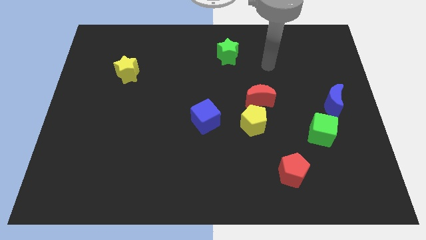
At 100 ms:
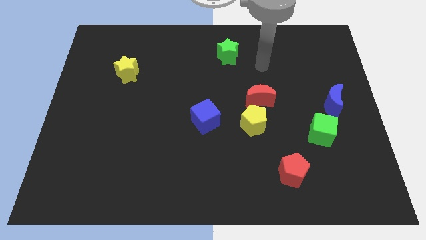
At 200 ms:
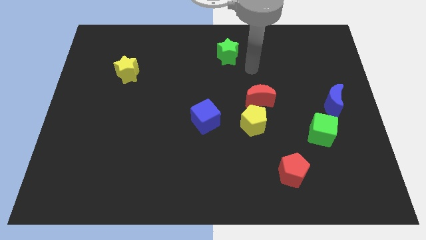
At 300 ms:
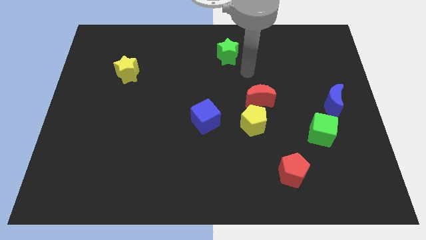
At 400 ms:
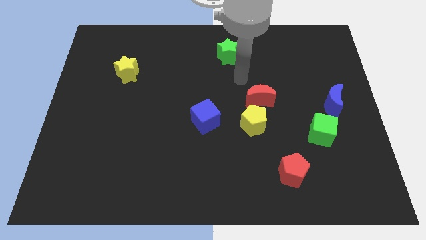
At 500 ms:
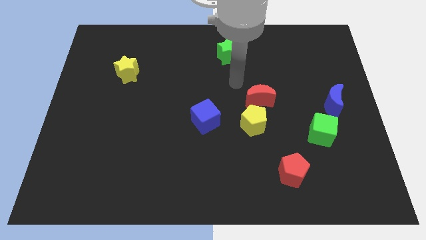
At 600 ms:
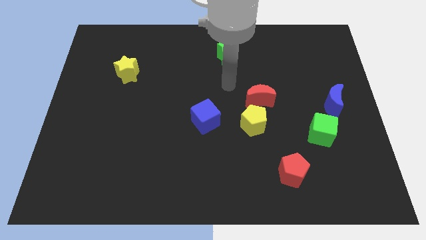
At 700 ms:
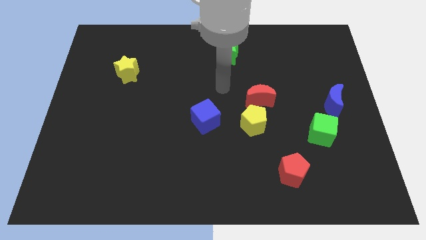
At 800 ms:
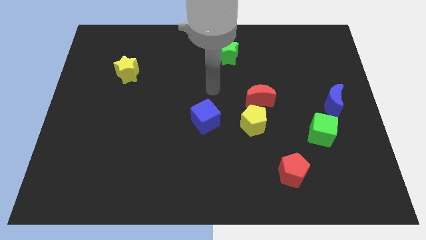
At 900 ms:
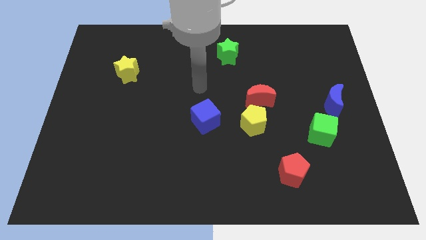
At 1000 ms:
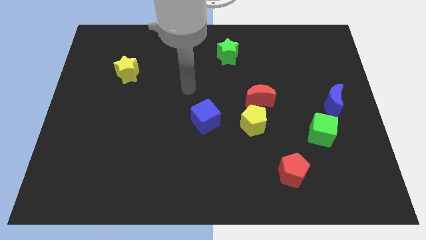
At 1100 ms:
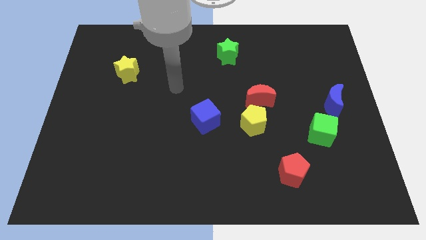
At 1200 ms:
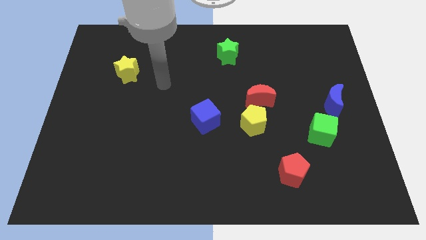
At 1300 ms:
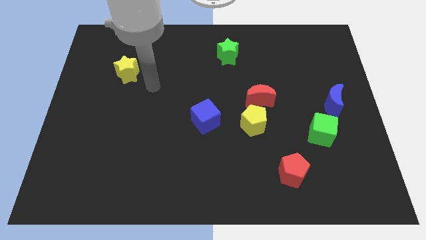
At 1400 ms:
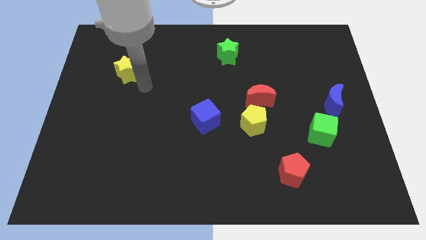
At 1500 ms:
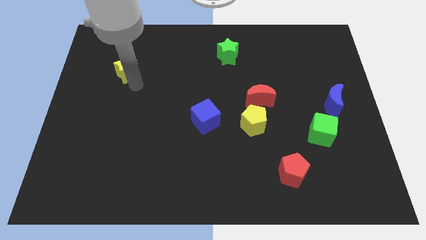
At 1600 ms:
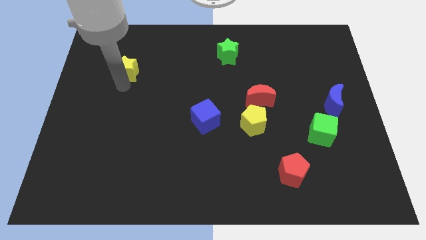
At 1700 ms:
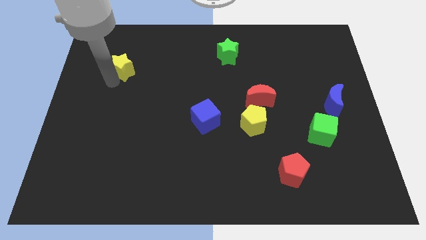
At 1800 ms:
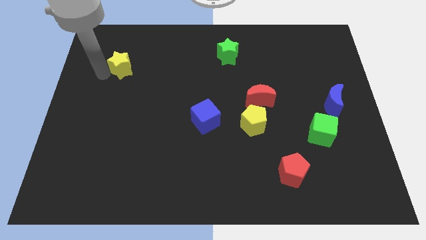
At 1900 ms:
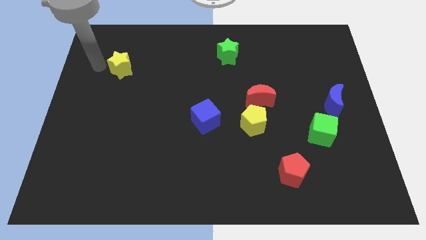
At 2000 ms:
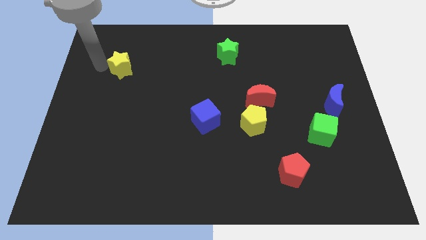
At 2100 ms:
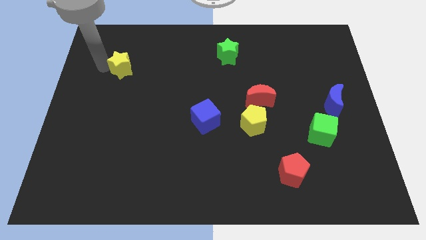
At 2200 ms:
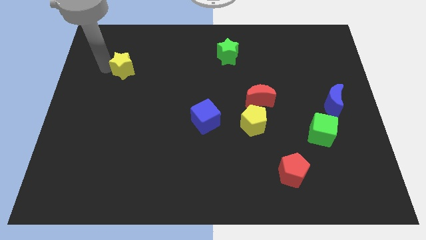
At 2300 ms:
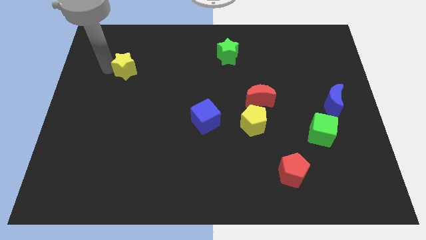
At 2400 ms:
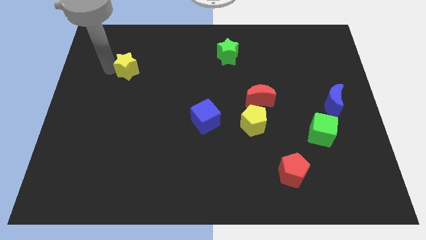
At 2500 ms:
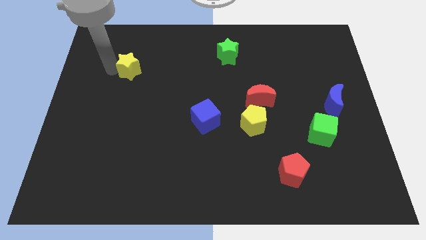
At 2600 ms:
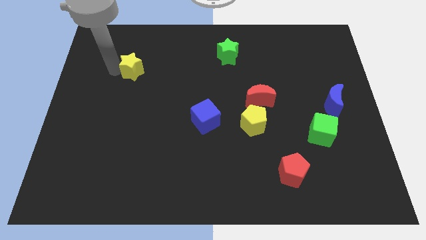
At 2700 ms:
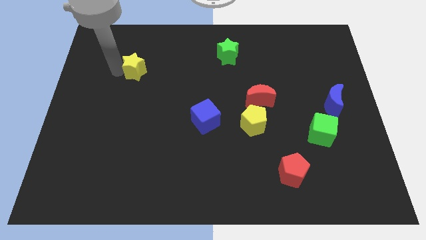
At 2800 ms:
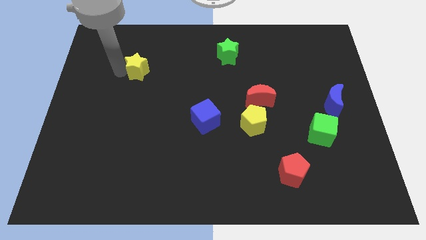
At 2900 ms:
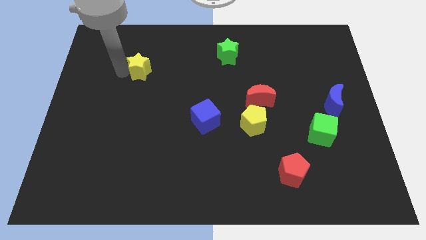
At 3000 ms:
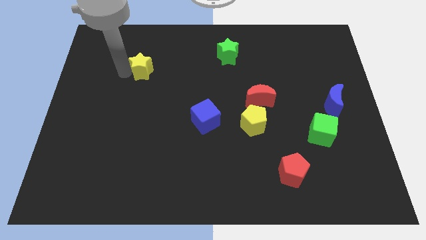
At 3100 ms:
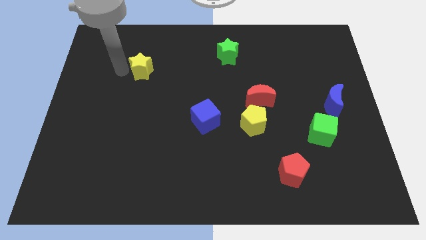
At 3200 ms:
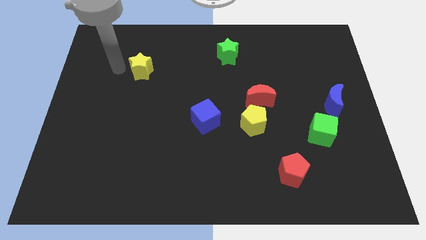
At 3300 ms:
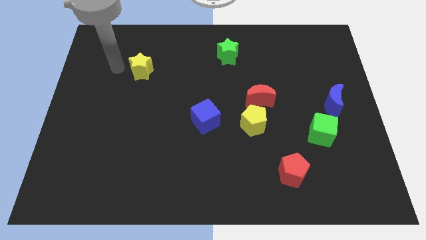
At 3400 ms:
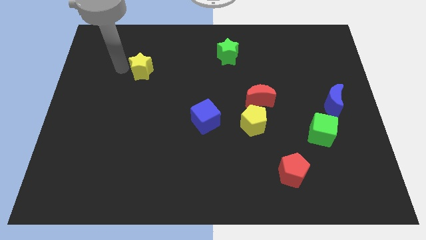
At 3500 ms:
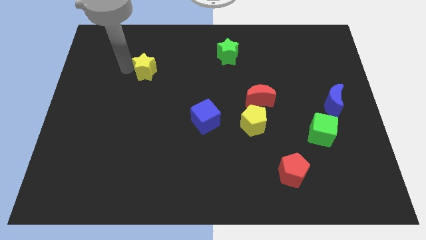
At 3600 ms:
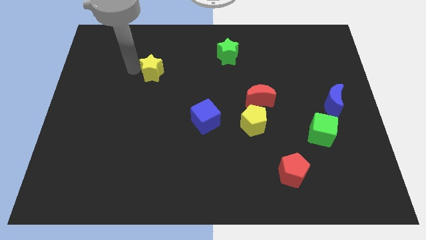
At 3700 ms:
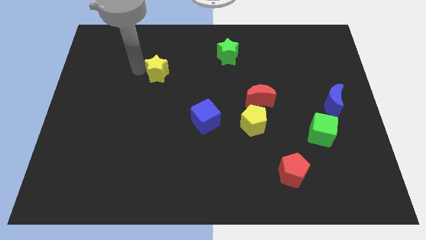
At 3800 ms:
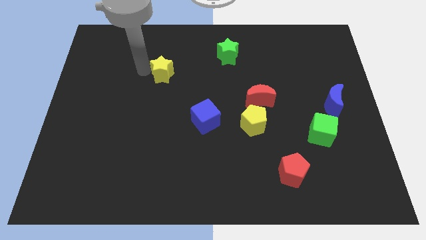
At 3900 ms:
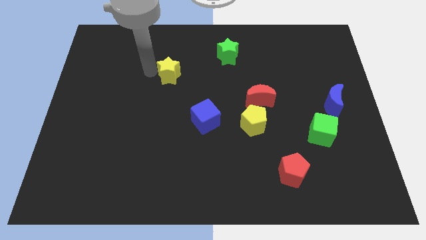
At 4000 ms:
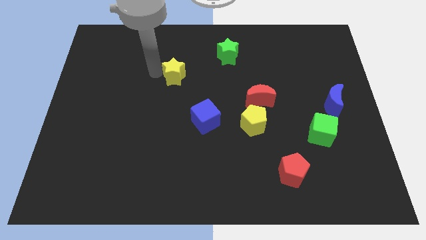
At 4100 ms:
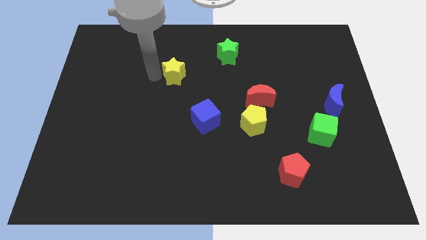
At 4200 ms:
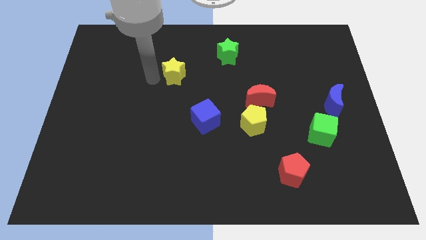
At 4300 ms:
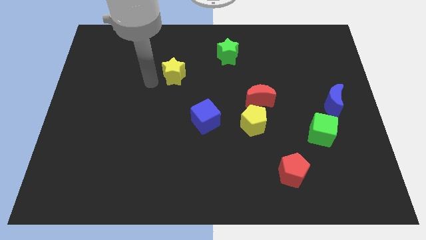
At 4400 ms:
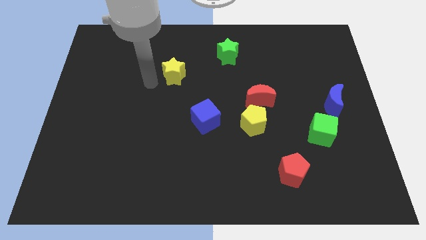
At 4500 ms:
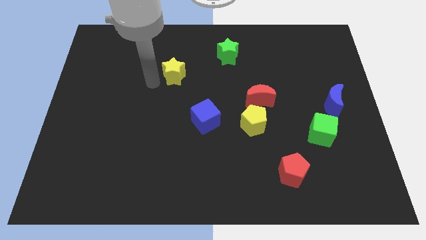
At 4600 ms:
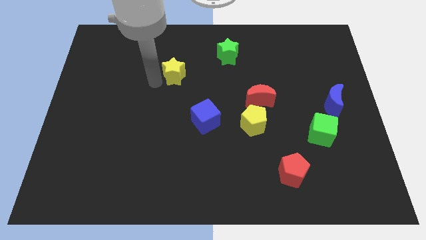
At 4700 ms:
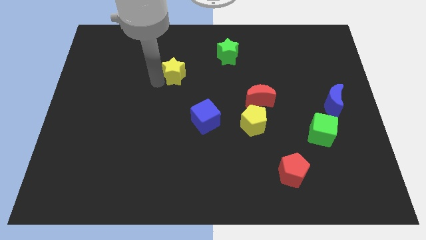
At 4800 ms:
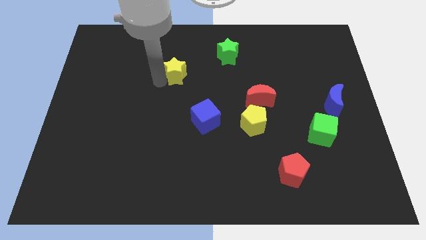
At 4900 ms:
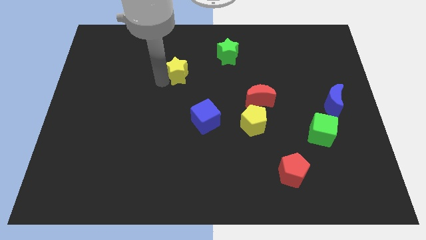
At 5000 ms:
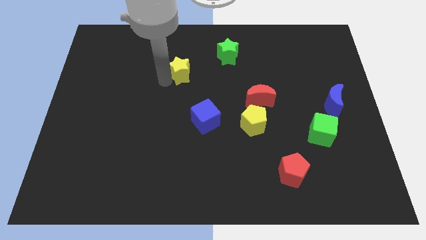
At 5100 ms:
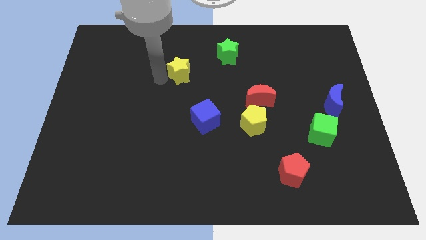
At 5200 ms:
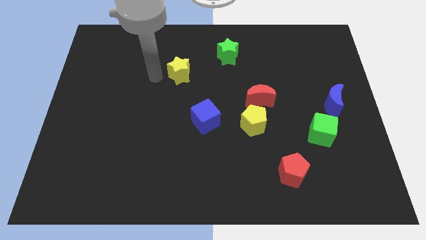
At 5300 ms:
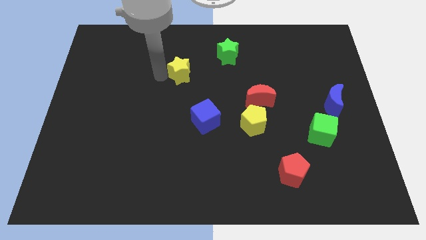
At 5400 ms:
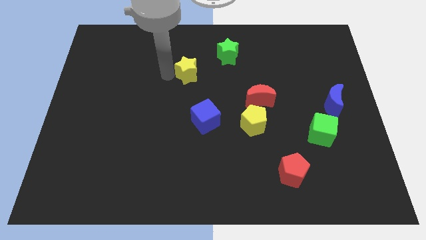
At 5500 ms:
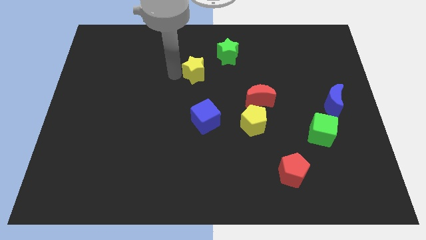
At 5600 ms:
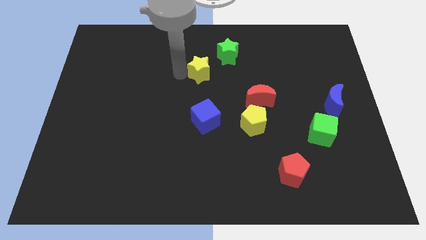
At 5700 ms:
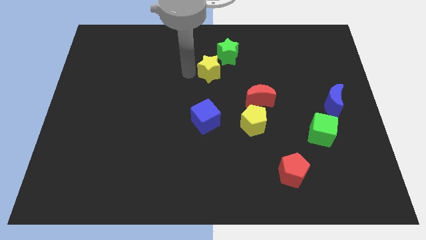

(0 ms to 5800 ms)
slide the yellow star right

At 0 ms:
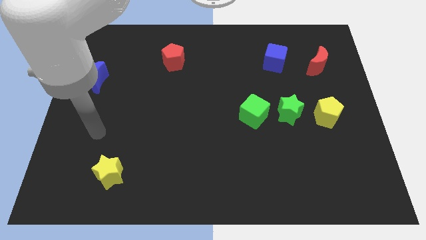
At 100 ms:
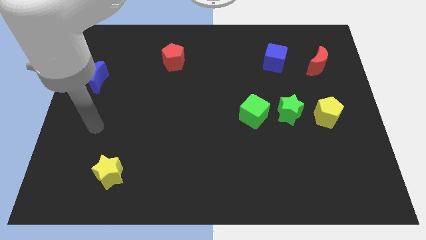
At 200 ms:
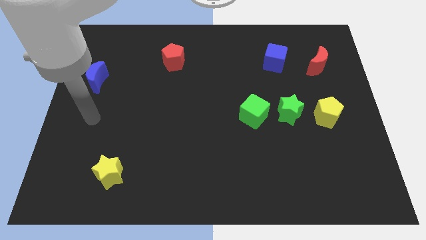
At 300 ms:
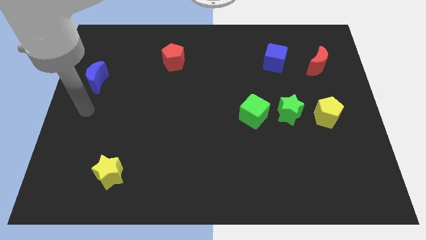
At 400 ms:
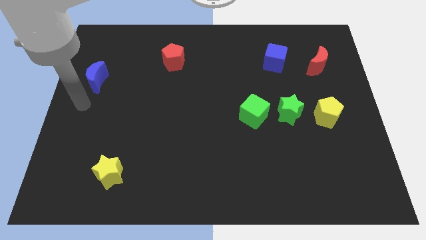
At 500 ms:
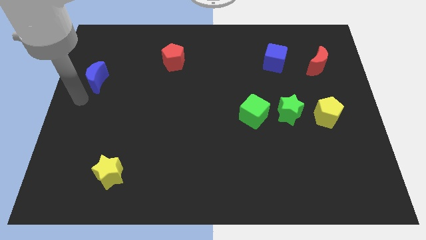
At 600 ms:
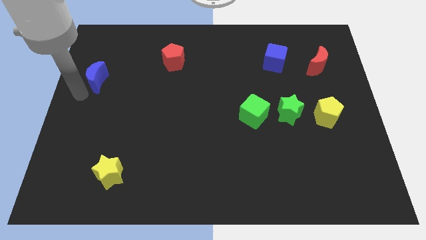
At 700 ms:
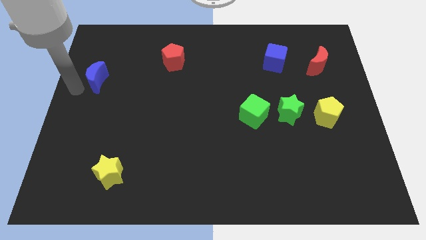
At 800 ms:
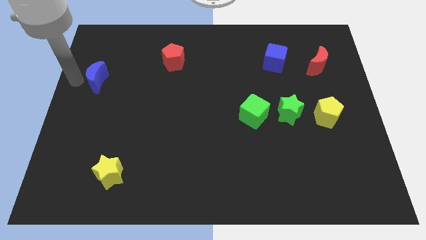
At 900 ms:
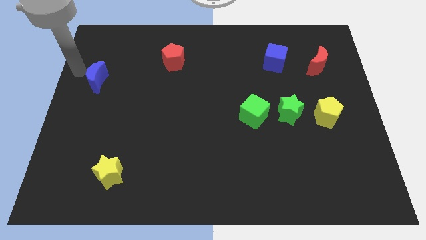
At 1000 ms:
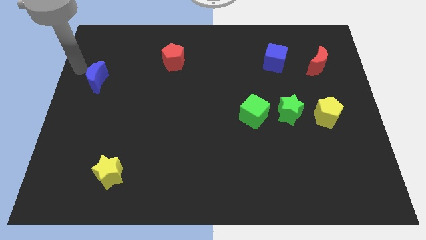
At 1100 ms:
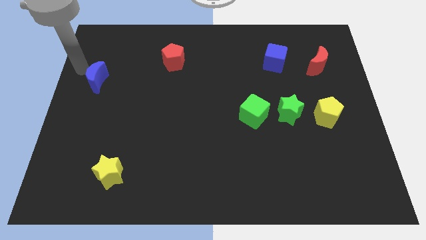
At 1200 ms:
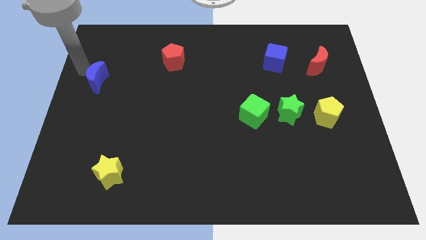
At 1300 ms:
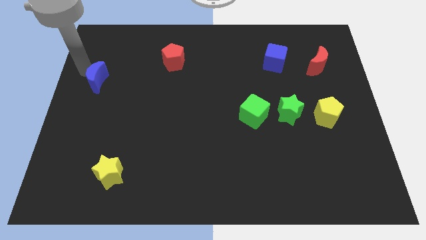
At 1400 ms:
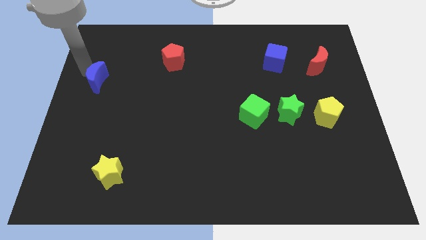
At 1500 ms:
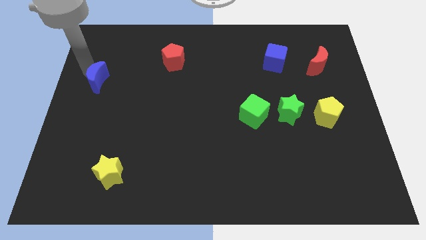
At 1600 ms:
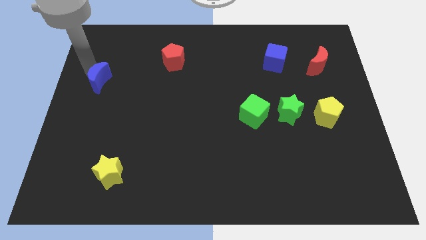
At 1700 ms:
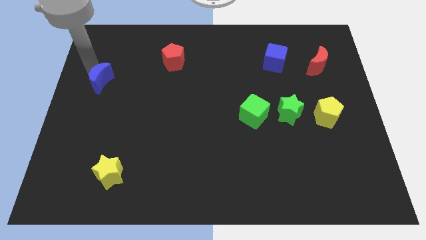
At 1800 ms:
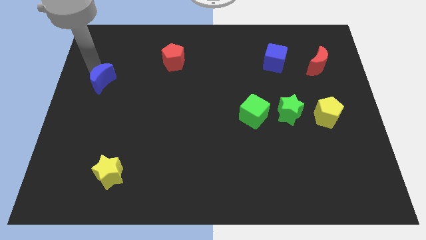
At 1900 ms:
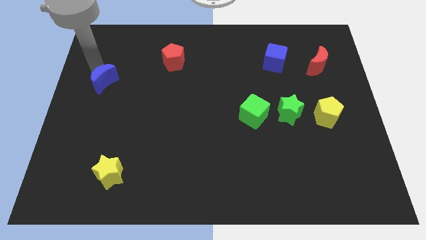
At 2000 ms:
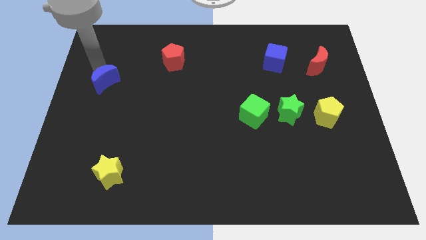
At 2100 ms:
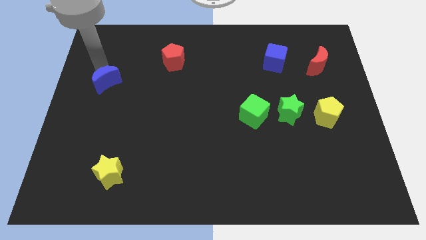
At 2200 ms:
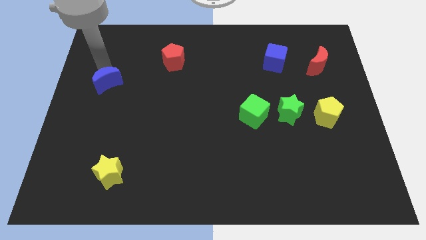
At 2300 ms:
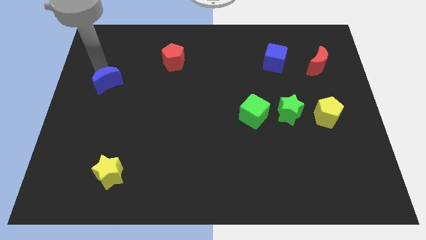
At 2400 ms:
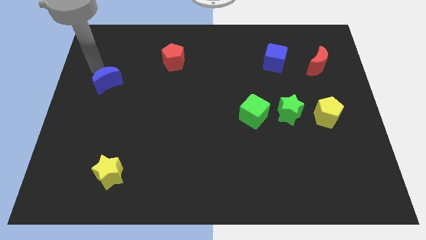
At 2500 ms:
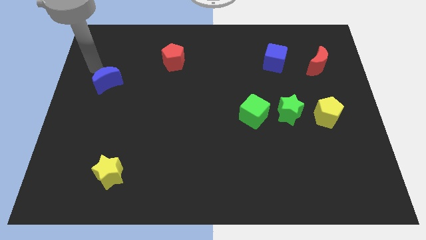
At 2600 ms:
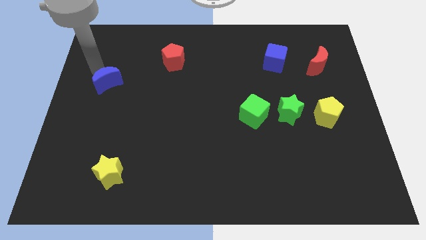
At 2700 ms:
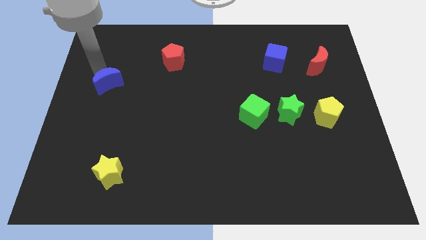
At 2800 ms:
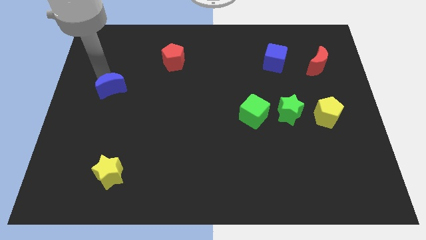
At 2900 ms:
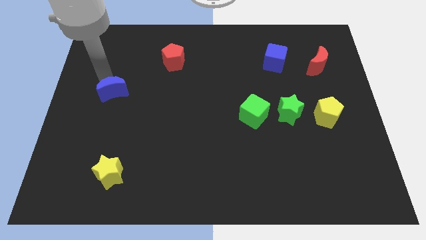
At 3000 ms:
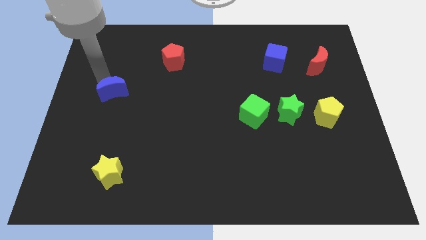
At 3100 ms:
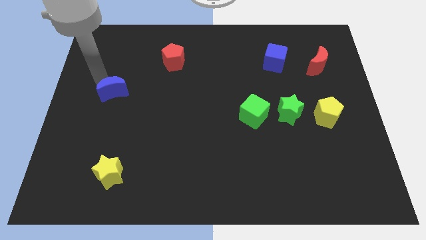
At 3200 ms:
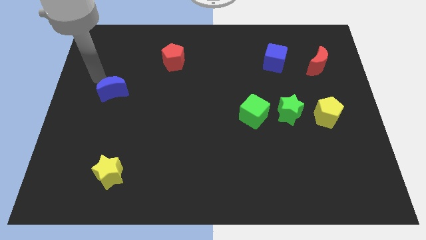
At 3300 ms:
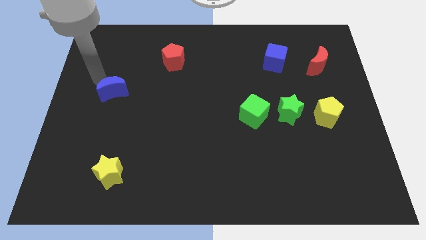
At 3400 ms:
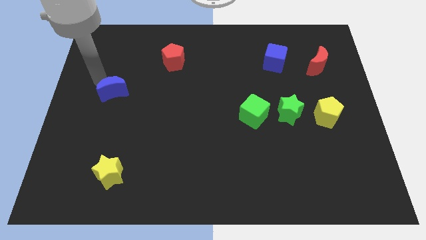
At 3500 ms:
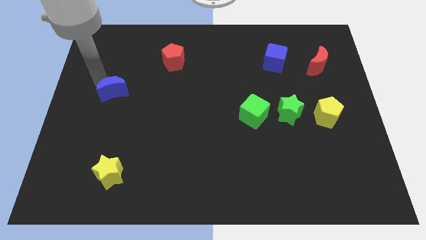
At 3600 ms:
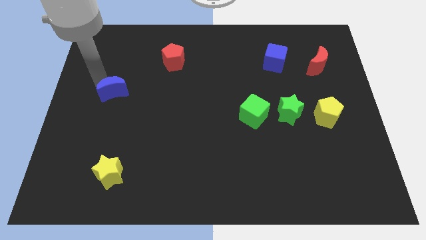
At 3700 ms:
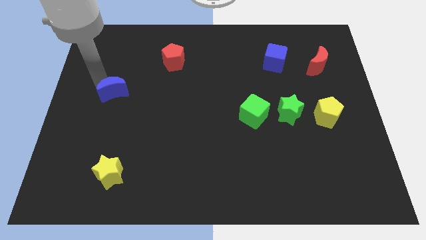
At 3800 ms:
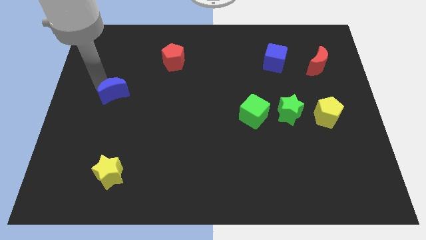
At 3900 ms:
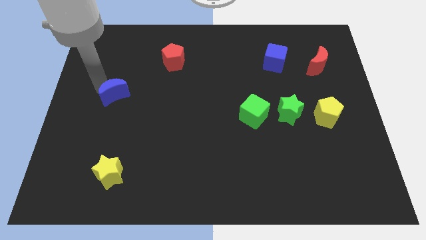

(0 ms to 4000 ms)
push the blue moon somewhat downwards and right
